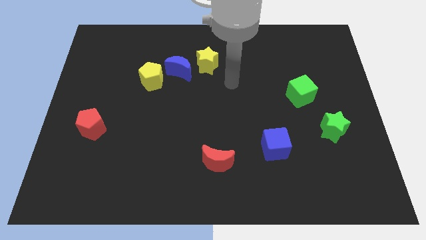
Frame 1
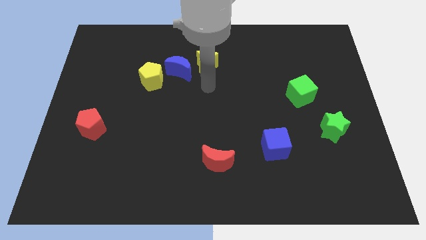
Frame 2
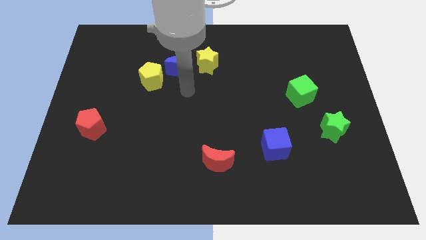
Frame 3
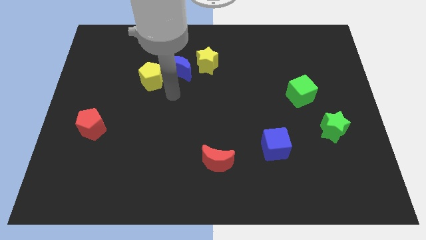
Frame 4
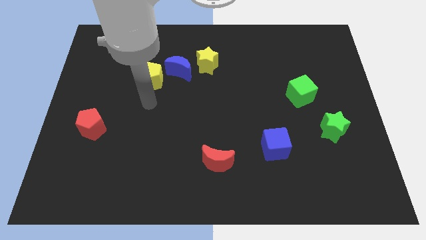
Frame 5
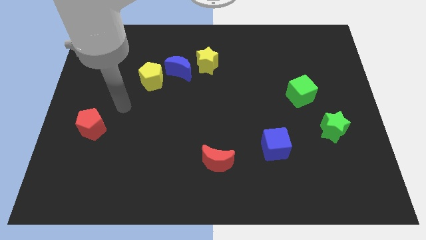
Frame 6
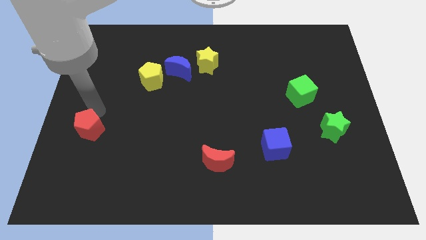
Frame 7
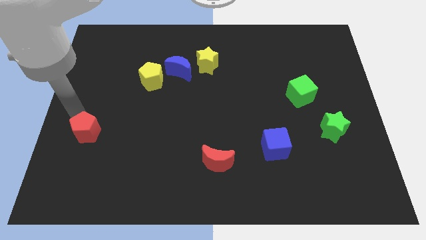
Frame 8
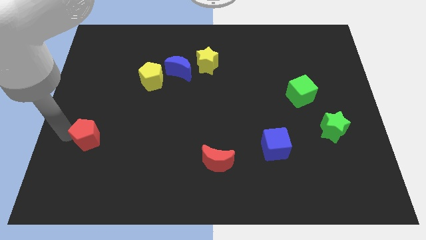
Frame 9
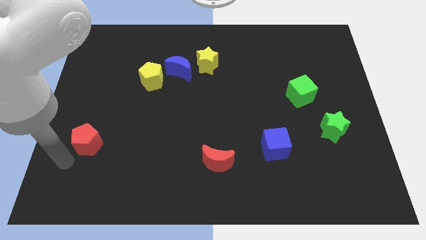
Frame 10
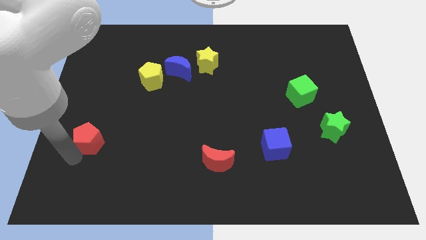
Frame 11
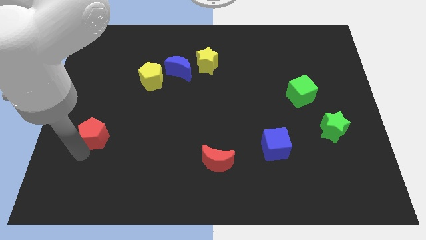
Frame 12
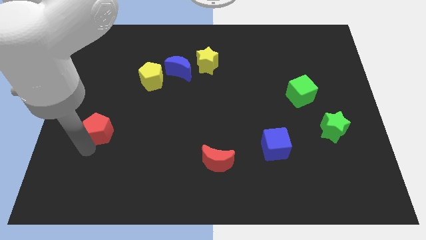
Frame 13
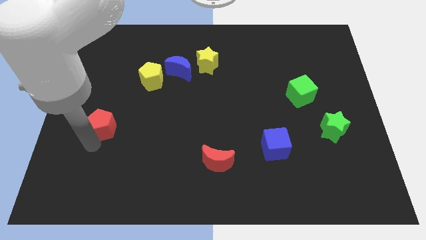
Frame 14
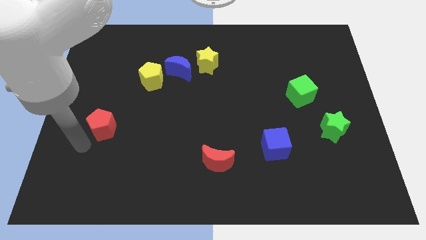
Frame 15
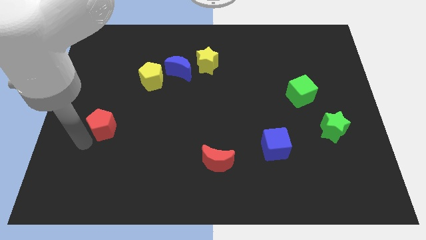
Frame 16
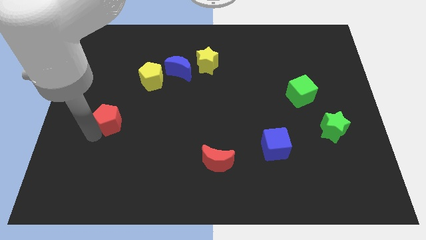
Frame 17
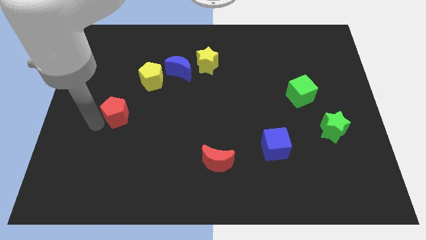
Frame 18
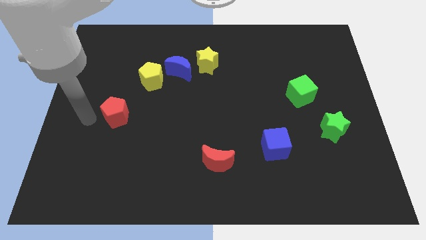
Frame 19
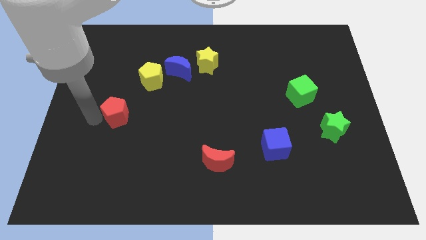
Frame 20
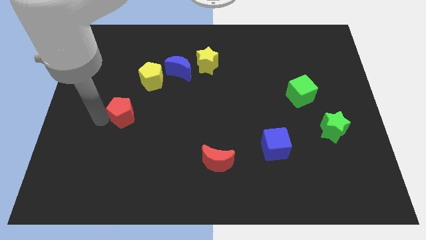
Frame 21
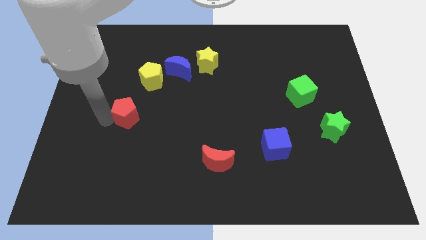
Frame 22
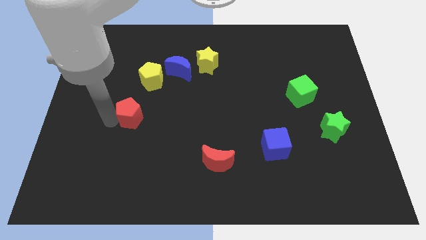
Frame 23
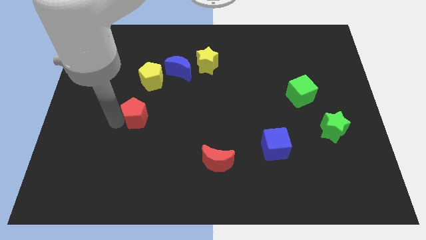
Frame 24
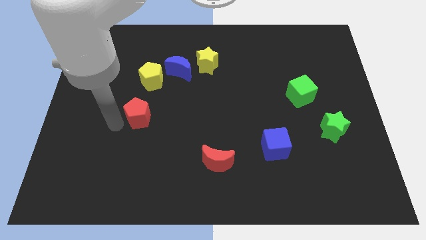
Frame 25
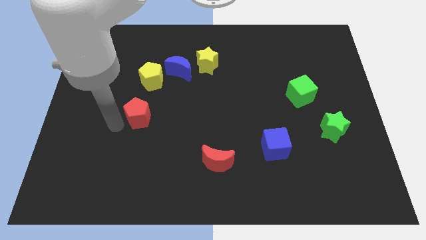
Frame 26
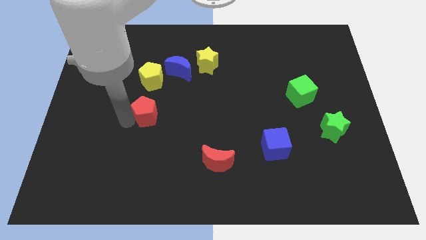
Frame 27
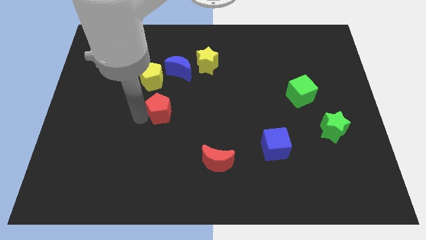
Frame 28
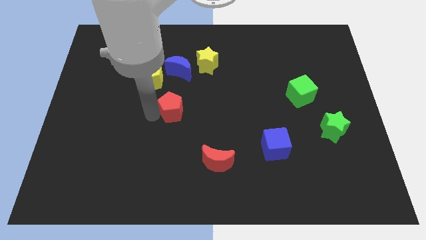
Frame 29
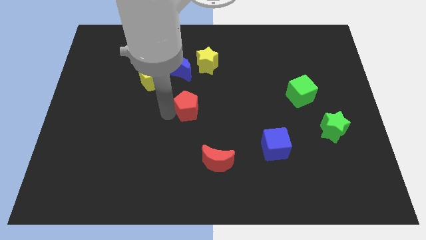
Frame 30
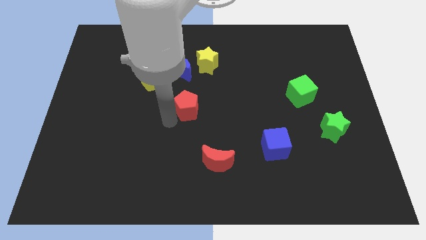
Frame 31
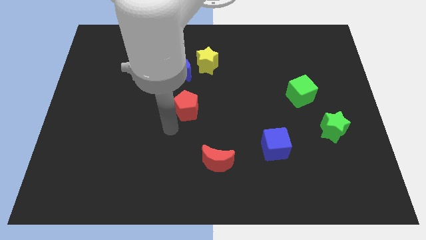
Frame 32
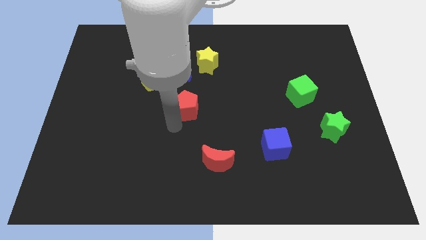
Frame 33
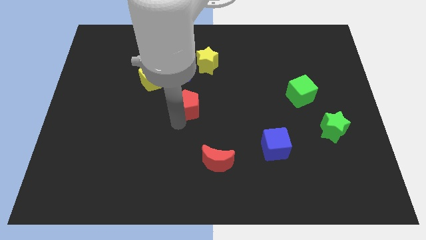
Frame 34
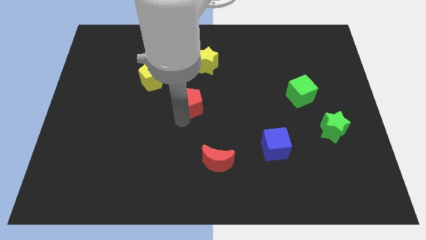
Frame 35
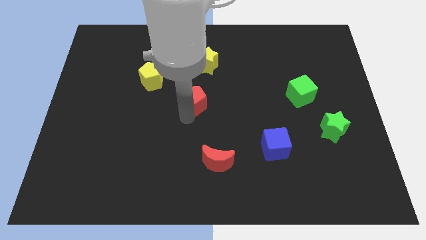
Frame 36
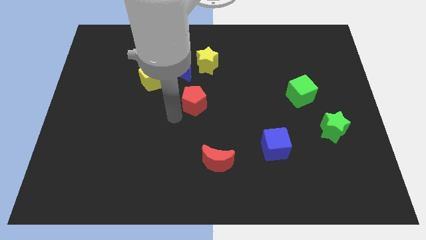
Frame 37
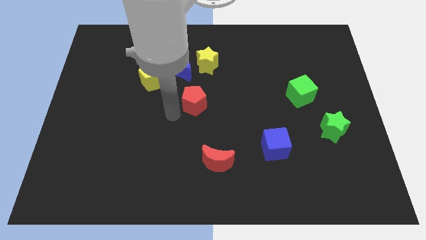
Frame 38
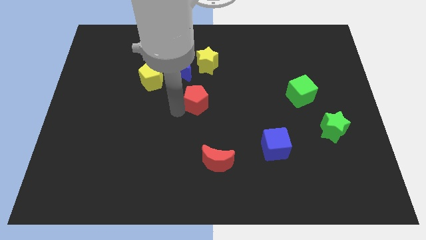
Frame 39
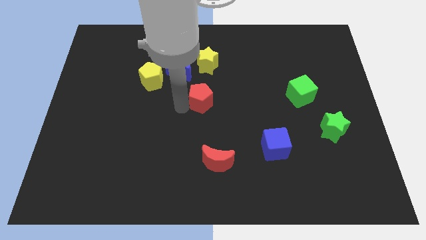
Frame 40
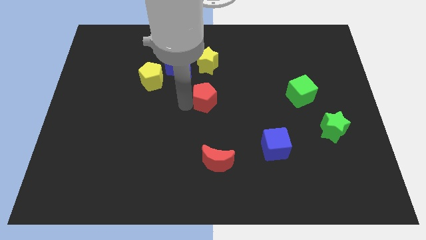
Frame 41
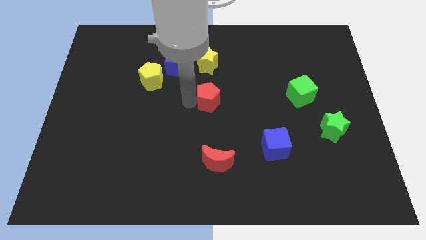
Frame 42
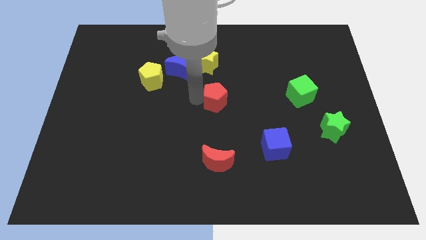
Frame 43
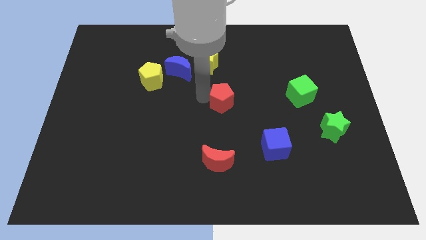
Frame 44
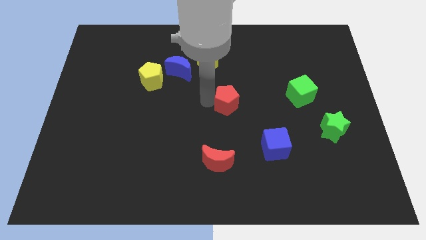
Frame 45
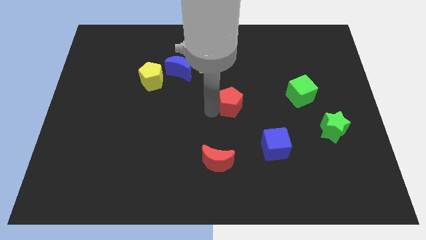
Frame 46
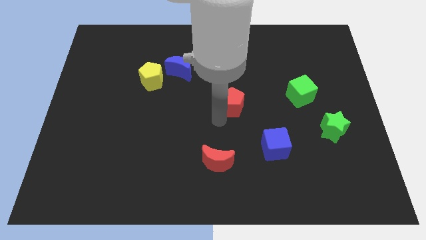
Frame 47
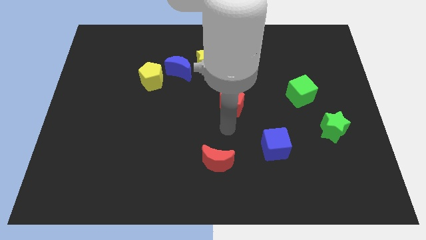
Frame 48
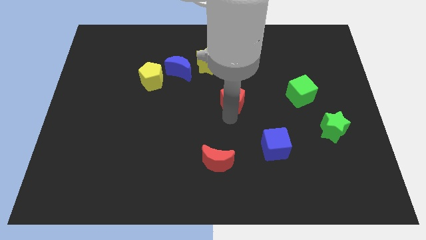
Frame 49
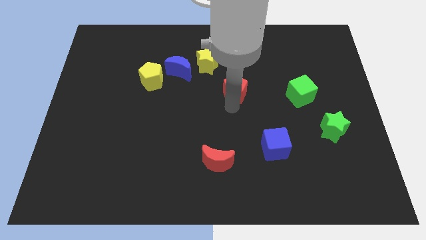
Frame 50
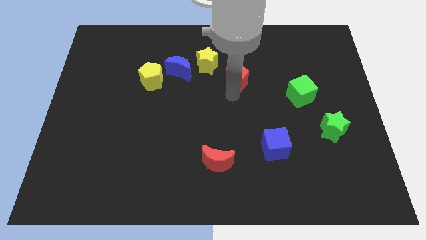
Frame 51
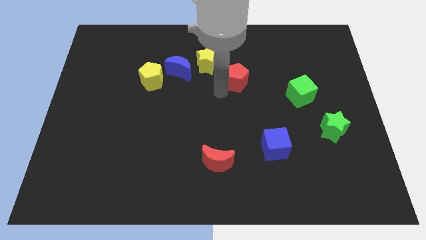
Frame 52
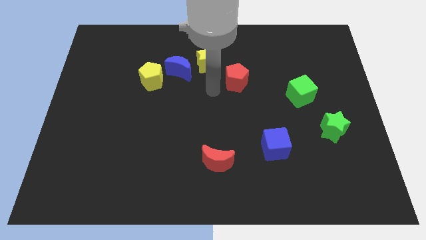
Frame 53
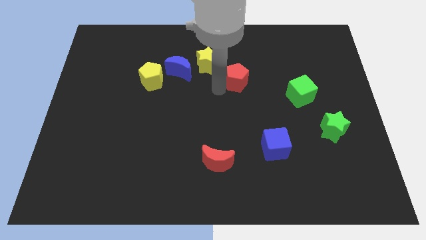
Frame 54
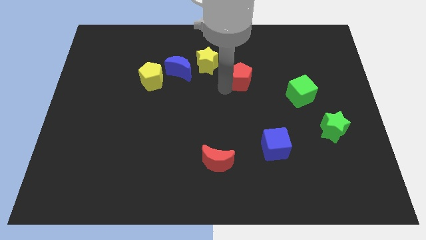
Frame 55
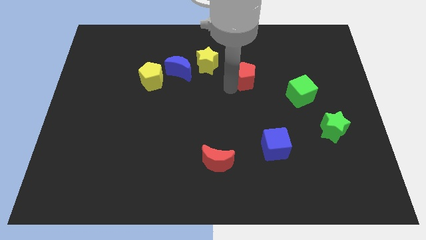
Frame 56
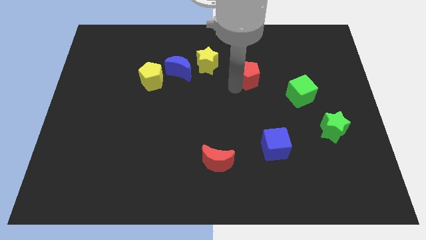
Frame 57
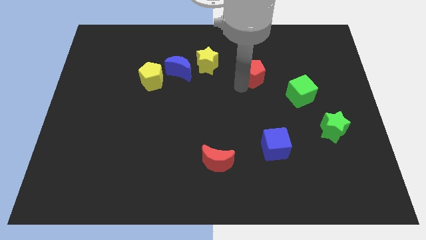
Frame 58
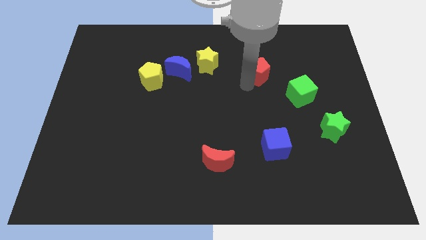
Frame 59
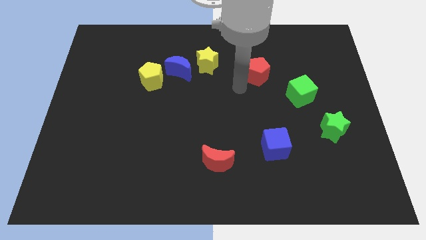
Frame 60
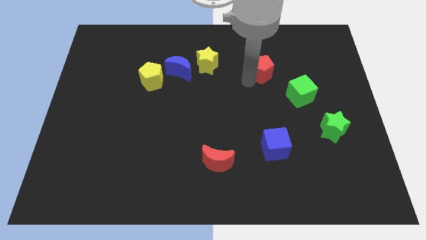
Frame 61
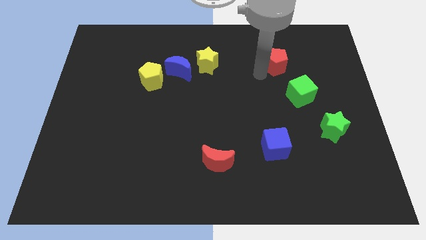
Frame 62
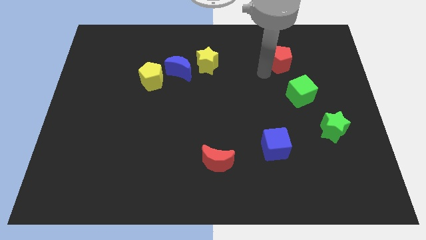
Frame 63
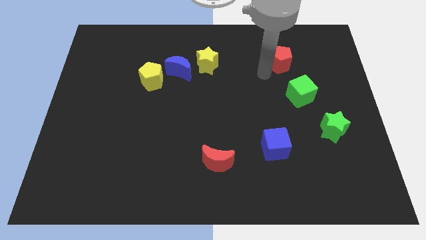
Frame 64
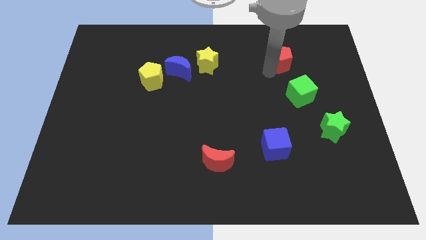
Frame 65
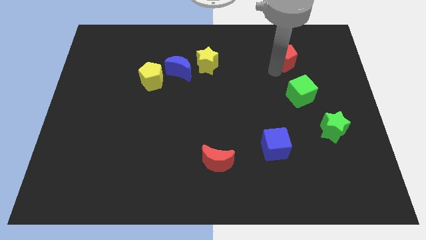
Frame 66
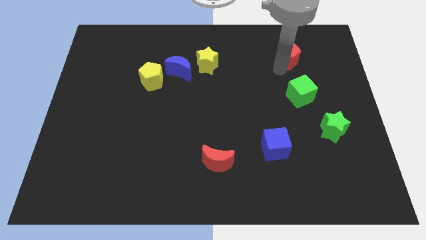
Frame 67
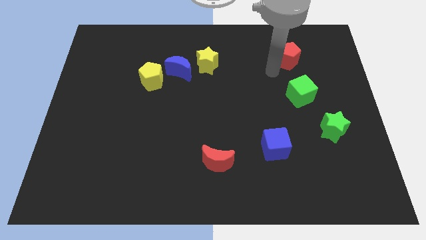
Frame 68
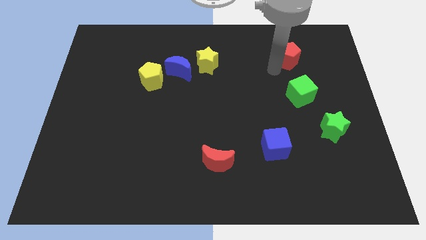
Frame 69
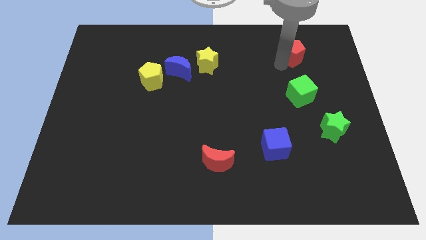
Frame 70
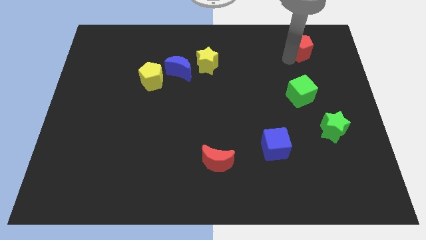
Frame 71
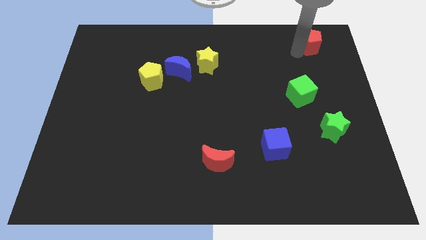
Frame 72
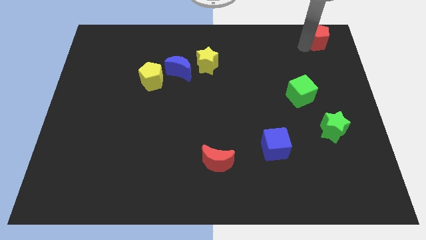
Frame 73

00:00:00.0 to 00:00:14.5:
put the red pentagon to the top right of the board
